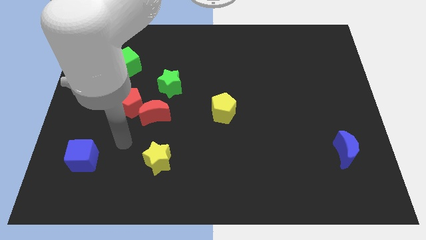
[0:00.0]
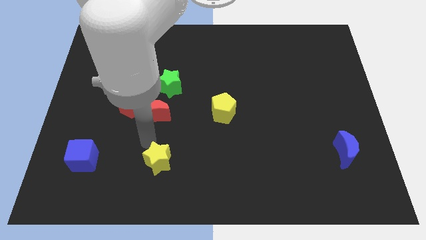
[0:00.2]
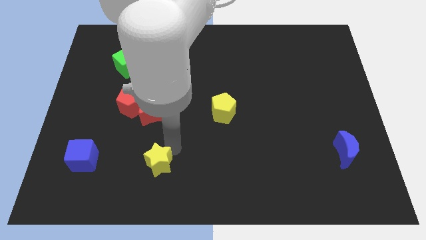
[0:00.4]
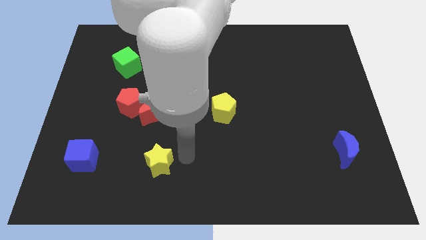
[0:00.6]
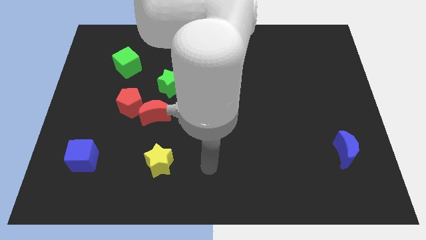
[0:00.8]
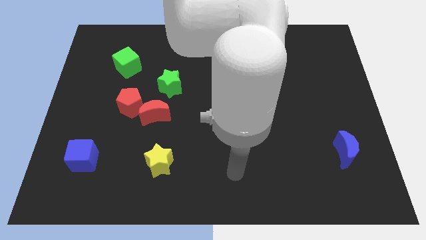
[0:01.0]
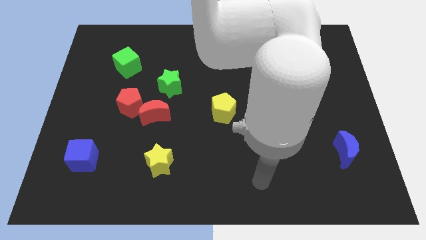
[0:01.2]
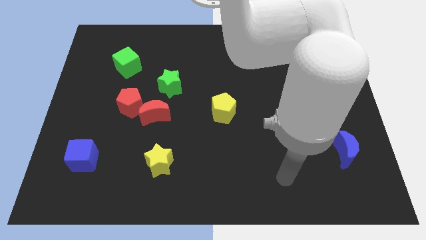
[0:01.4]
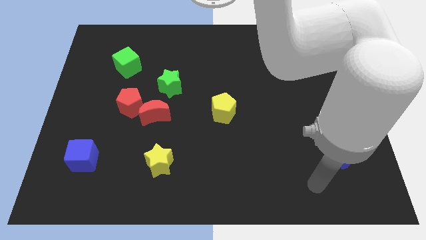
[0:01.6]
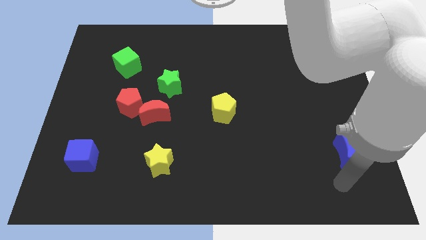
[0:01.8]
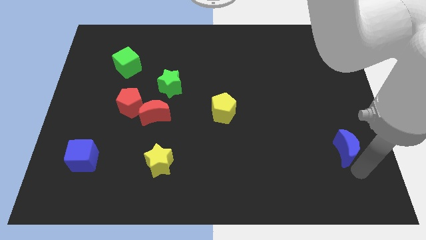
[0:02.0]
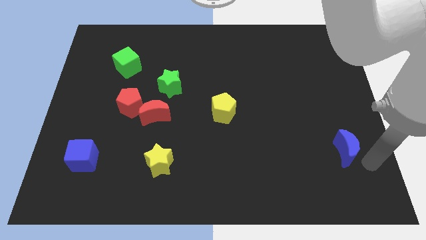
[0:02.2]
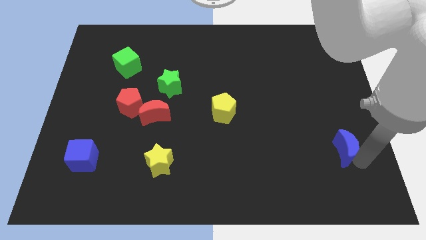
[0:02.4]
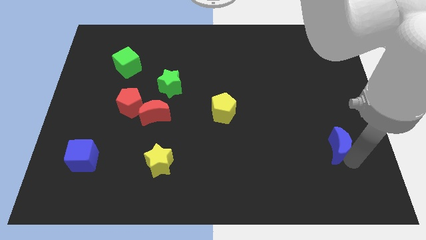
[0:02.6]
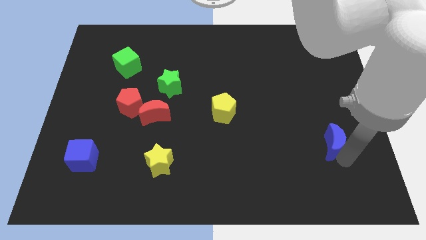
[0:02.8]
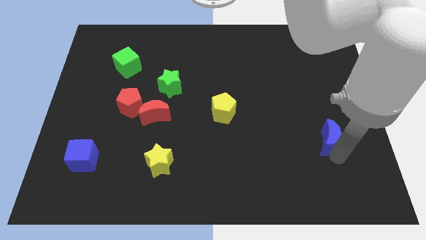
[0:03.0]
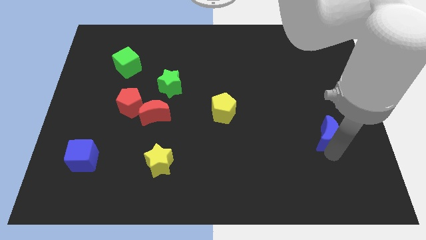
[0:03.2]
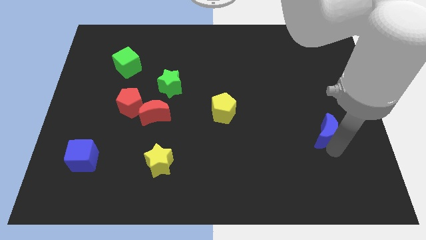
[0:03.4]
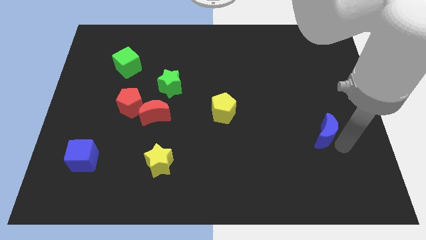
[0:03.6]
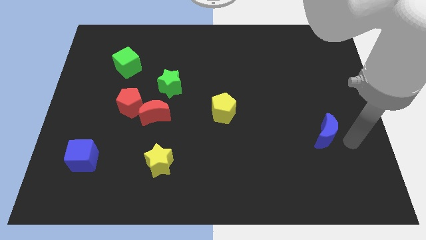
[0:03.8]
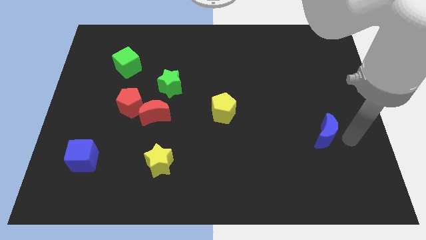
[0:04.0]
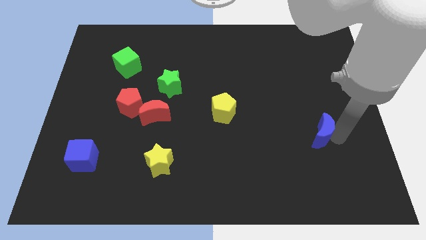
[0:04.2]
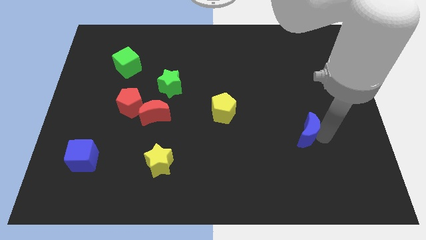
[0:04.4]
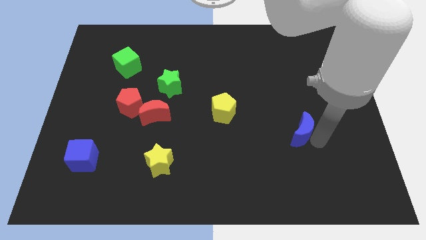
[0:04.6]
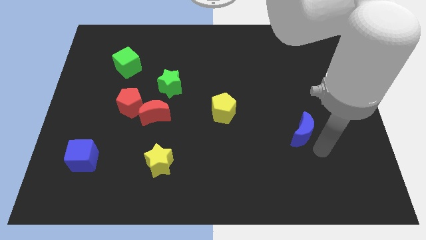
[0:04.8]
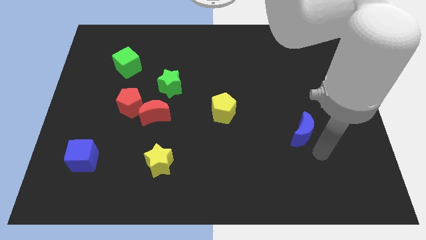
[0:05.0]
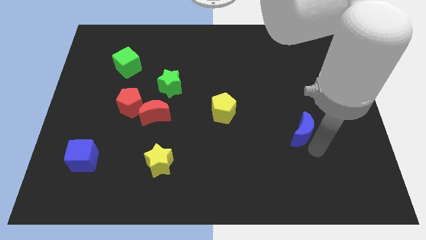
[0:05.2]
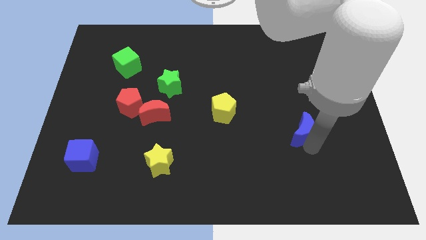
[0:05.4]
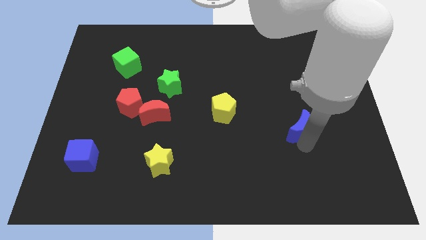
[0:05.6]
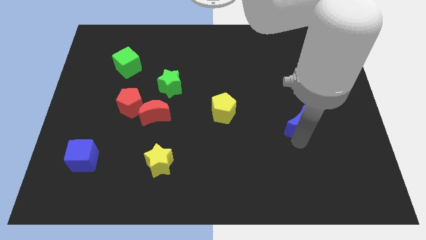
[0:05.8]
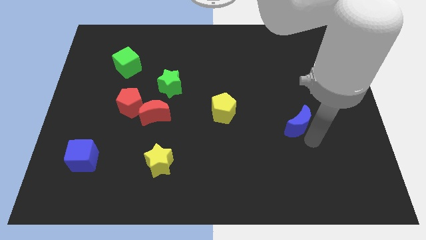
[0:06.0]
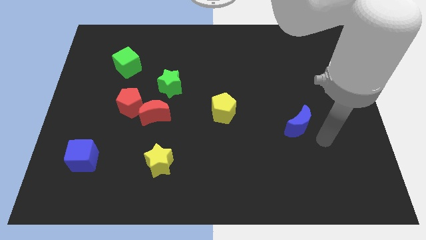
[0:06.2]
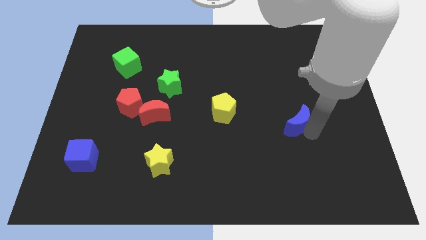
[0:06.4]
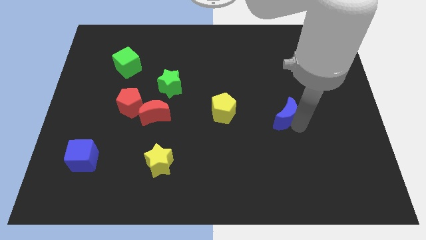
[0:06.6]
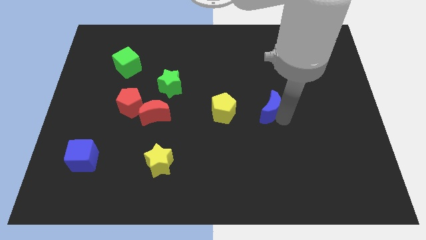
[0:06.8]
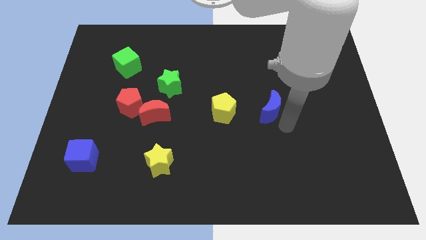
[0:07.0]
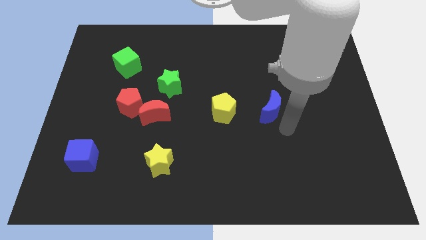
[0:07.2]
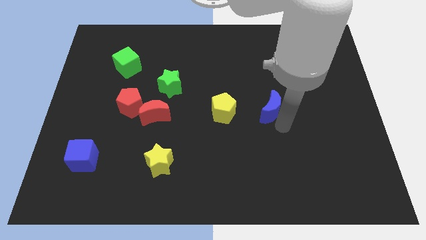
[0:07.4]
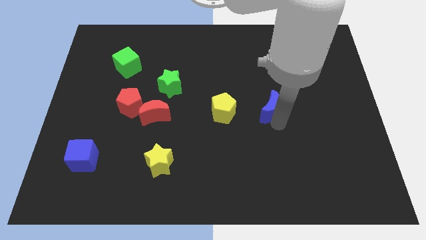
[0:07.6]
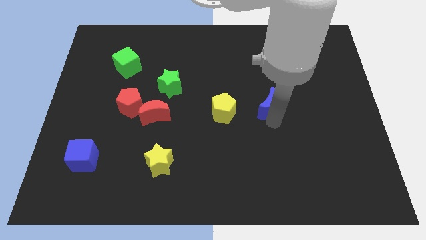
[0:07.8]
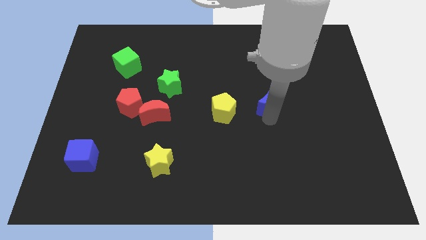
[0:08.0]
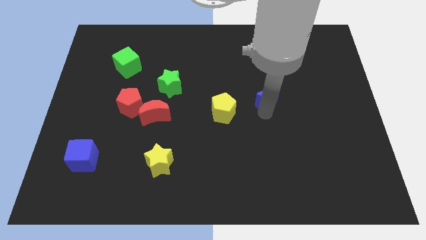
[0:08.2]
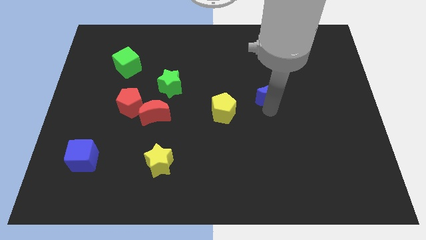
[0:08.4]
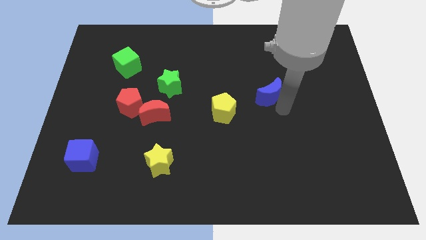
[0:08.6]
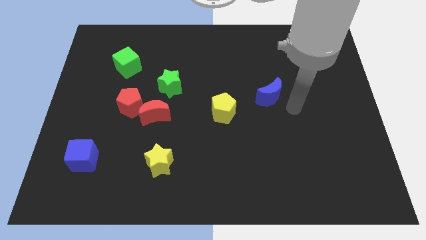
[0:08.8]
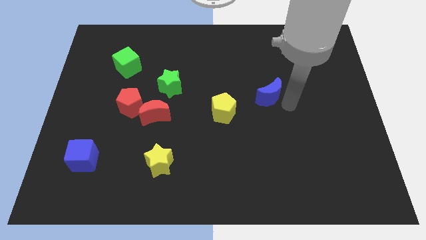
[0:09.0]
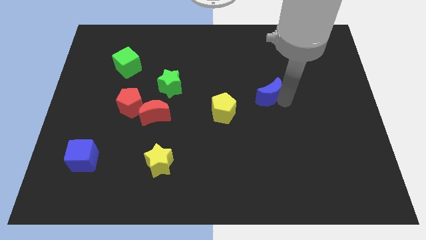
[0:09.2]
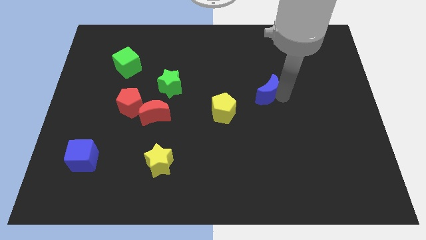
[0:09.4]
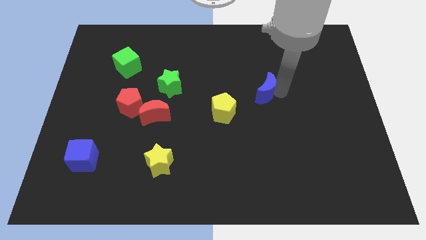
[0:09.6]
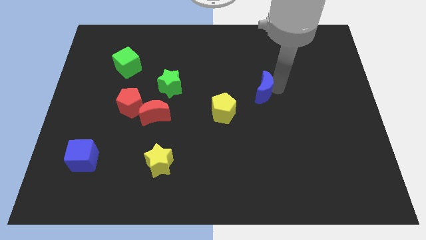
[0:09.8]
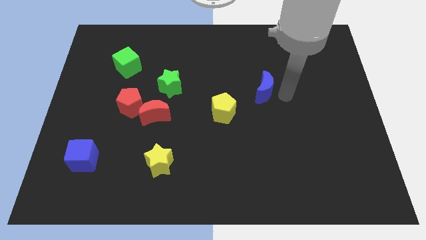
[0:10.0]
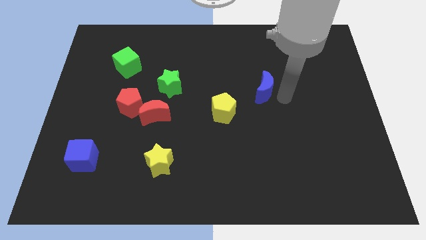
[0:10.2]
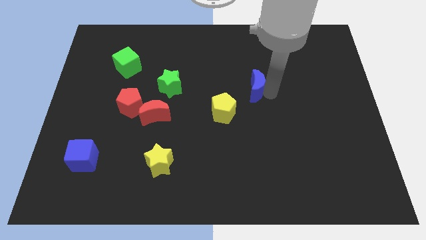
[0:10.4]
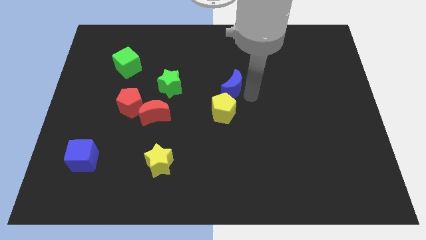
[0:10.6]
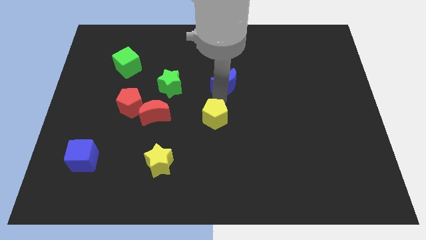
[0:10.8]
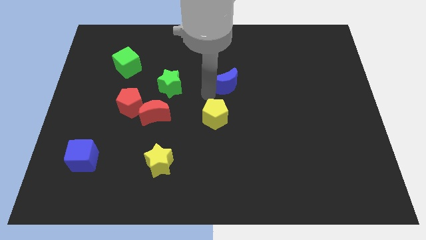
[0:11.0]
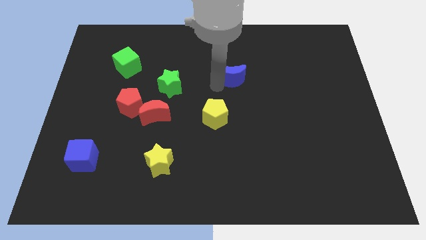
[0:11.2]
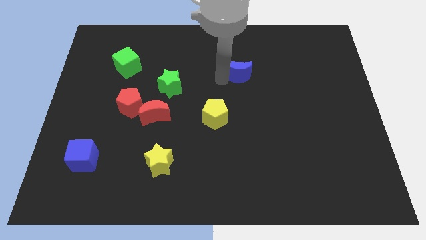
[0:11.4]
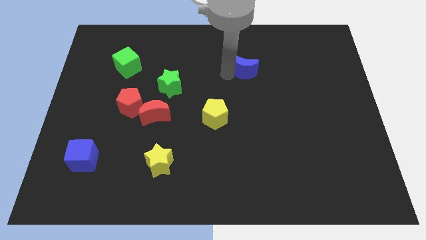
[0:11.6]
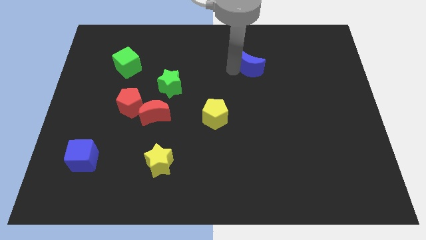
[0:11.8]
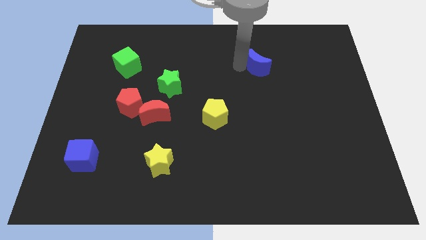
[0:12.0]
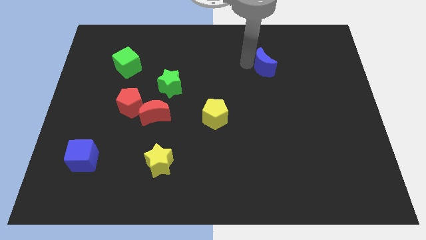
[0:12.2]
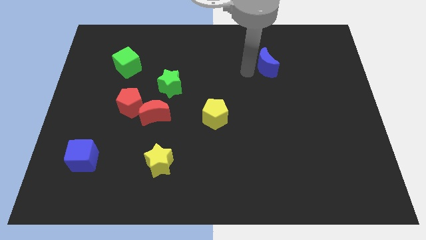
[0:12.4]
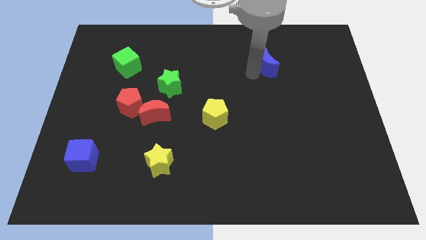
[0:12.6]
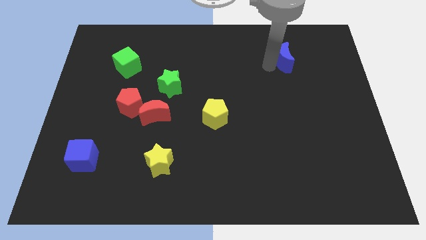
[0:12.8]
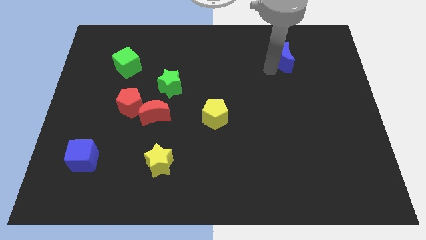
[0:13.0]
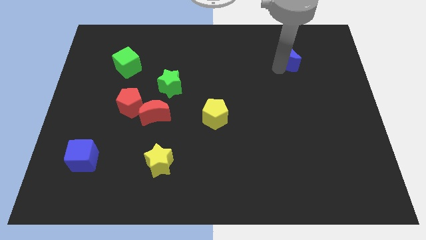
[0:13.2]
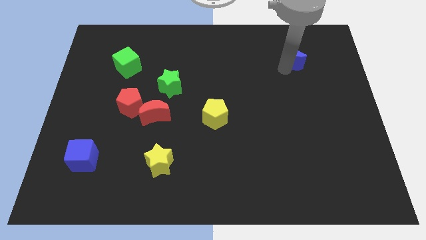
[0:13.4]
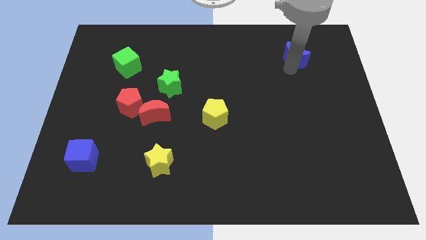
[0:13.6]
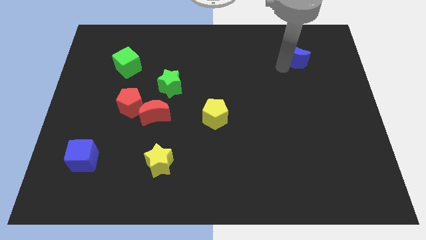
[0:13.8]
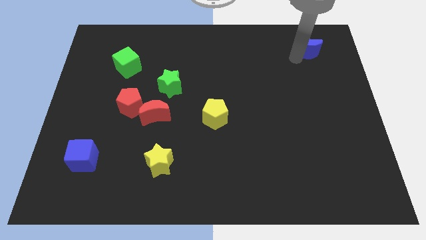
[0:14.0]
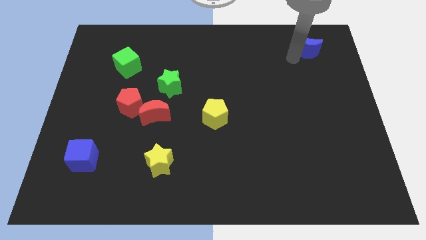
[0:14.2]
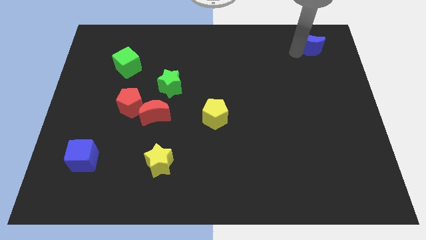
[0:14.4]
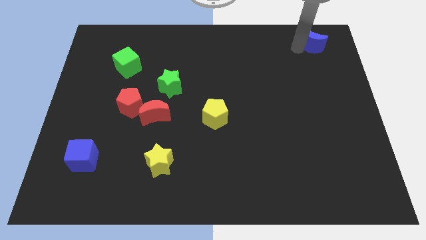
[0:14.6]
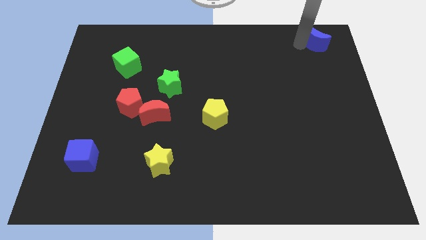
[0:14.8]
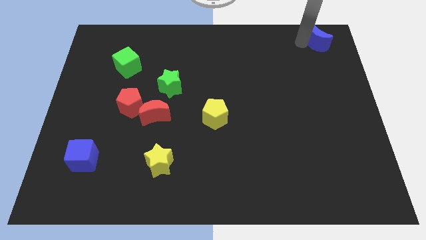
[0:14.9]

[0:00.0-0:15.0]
move the blue moon to the top right
